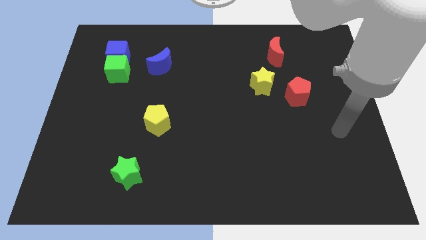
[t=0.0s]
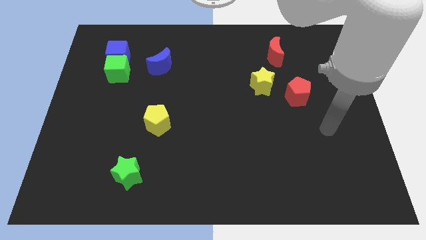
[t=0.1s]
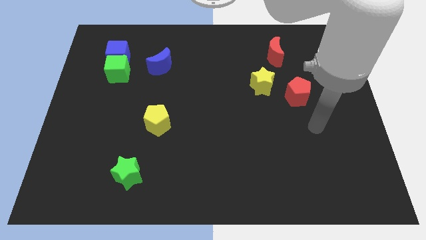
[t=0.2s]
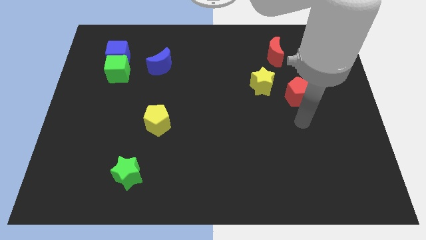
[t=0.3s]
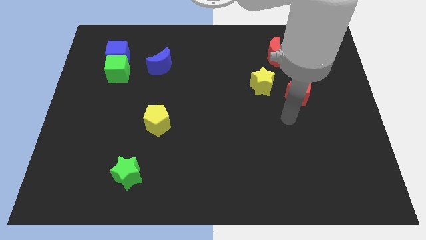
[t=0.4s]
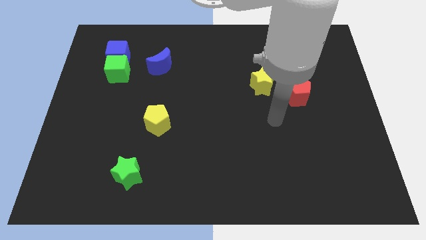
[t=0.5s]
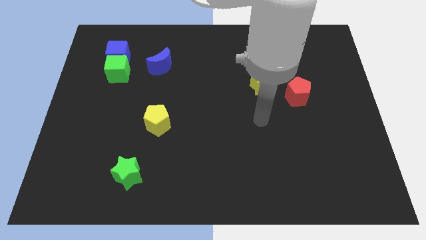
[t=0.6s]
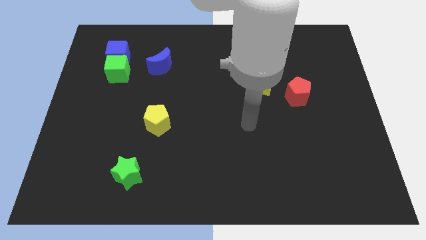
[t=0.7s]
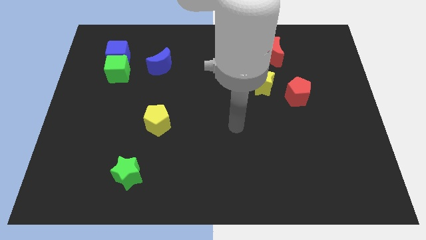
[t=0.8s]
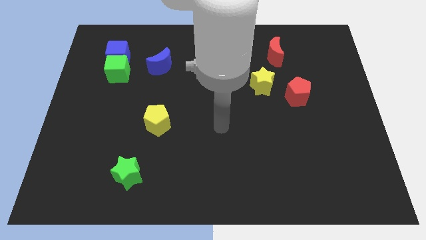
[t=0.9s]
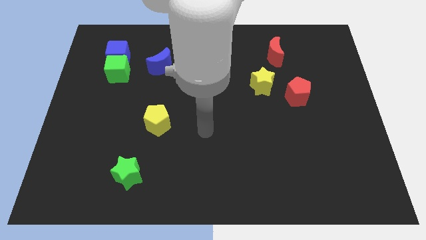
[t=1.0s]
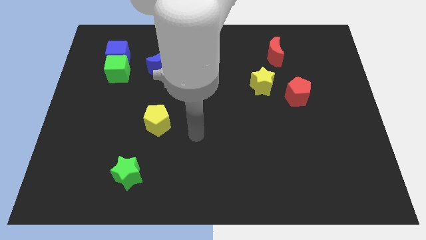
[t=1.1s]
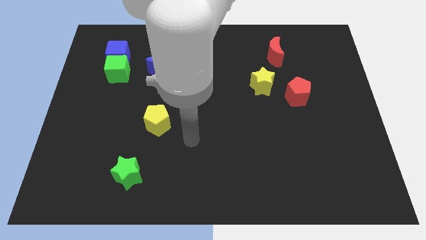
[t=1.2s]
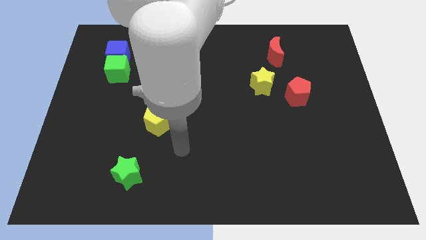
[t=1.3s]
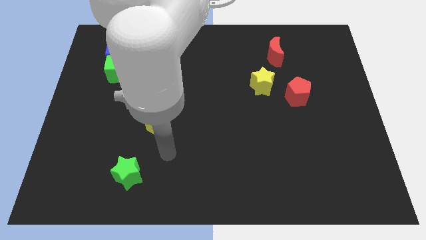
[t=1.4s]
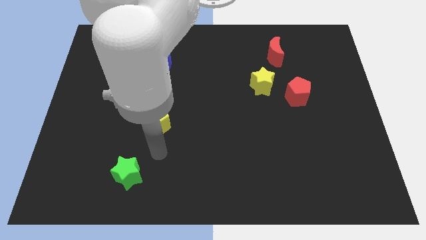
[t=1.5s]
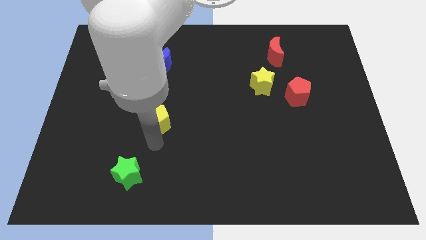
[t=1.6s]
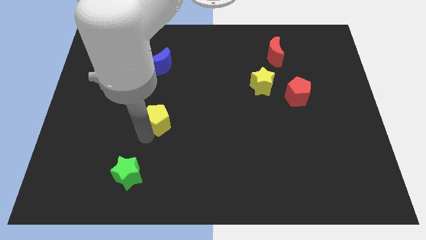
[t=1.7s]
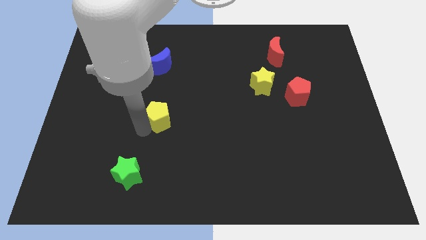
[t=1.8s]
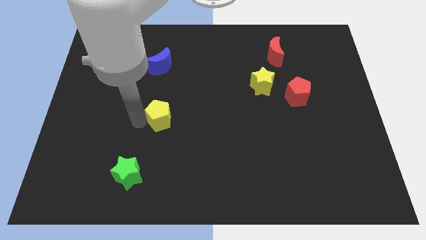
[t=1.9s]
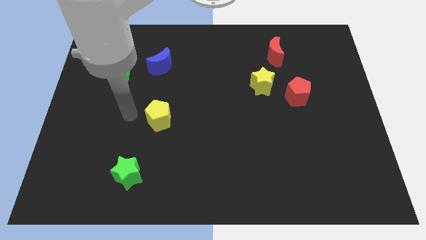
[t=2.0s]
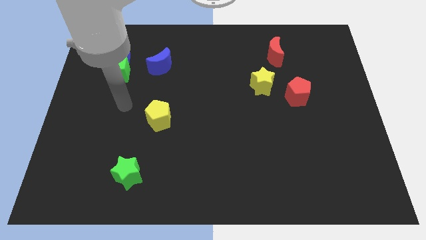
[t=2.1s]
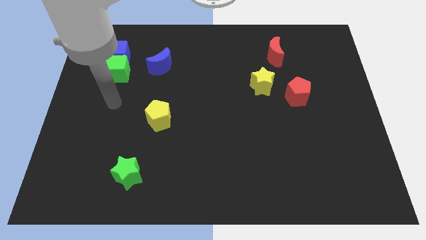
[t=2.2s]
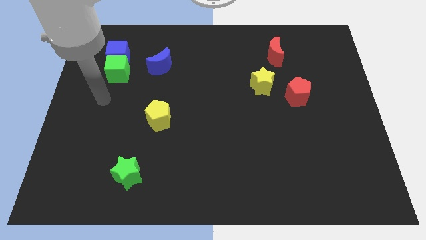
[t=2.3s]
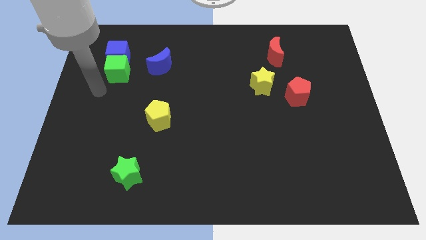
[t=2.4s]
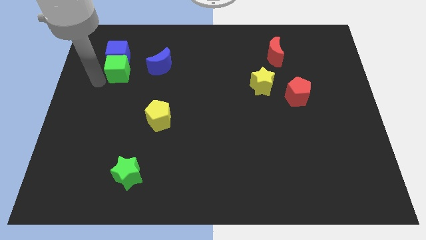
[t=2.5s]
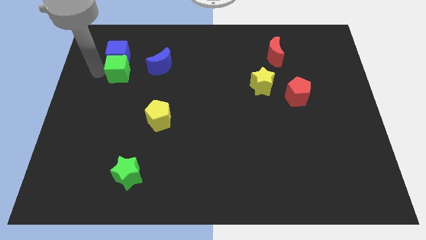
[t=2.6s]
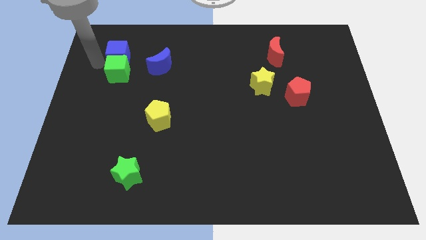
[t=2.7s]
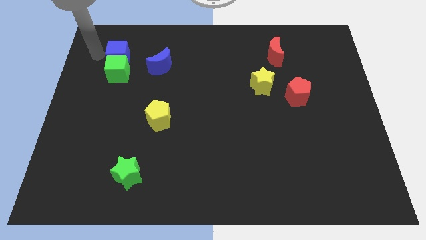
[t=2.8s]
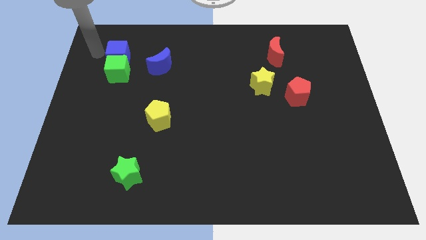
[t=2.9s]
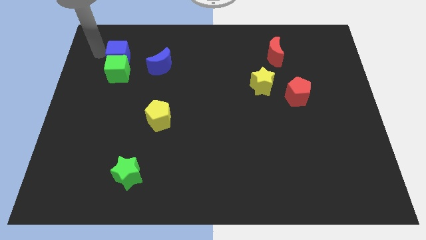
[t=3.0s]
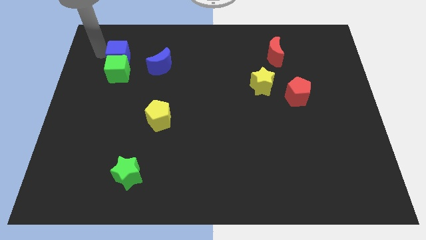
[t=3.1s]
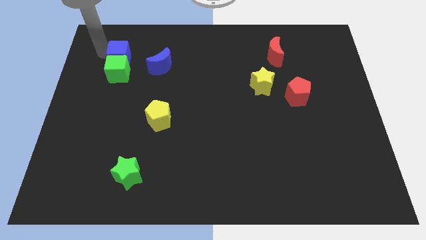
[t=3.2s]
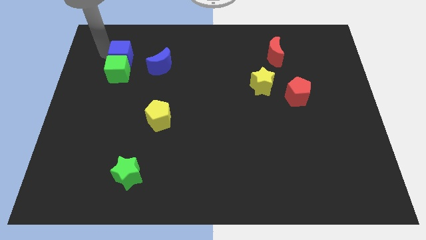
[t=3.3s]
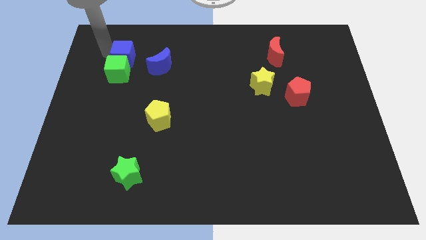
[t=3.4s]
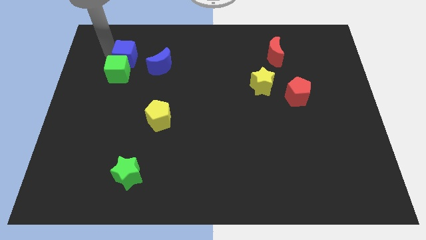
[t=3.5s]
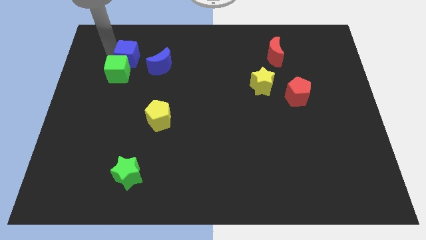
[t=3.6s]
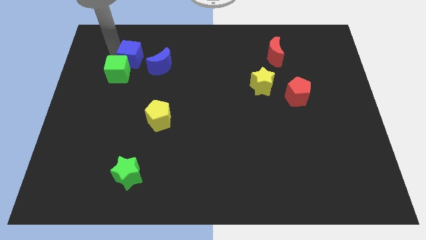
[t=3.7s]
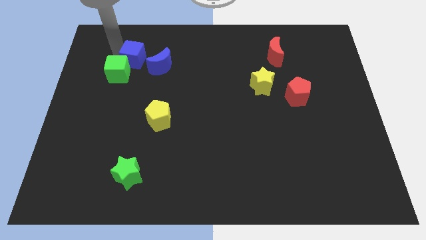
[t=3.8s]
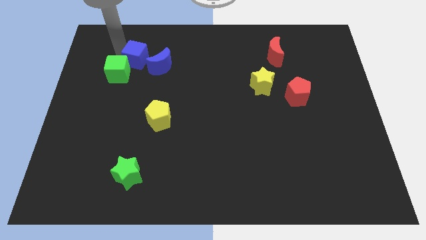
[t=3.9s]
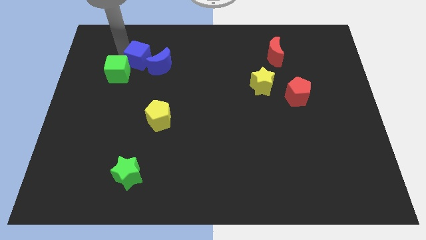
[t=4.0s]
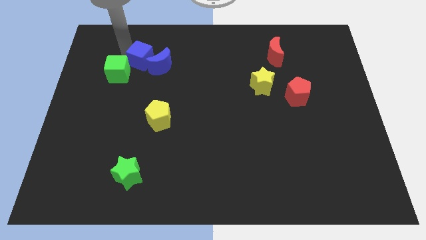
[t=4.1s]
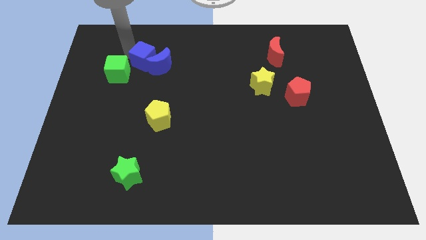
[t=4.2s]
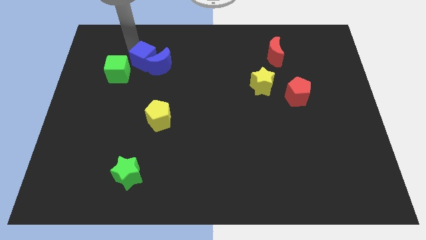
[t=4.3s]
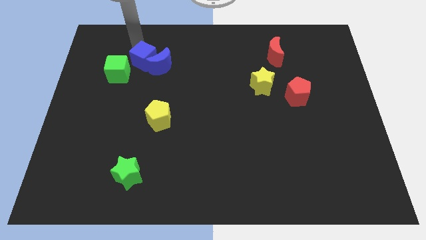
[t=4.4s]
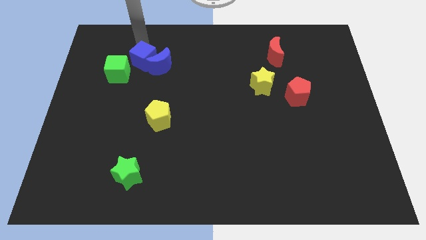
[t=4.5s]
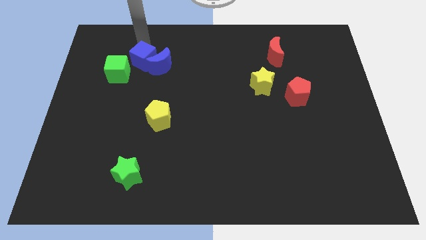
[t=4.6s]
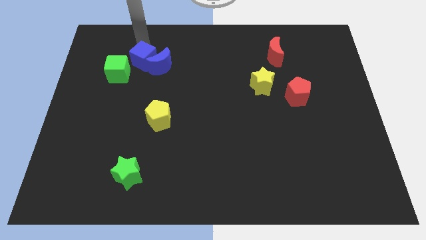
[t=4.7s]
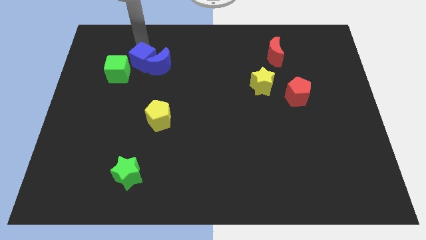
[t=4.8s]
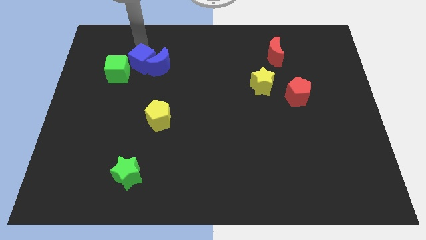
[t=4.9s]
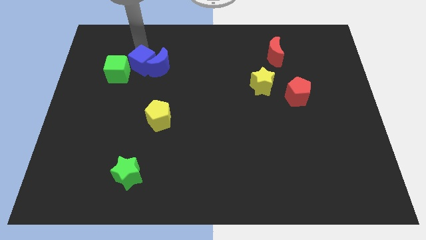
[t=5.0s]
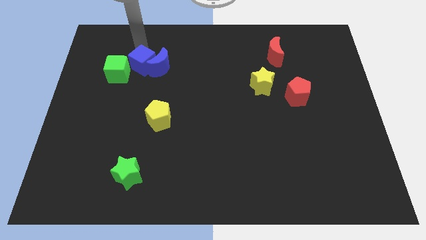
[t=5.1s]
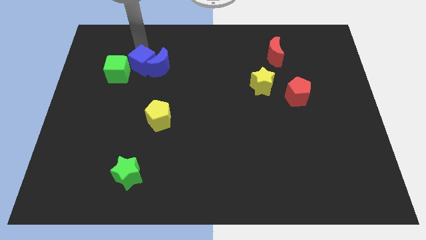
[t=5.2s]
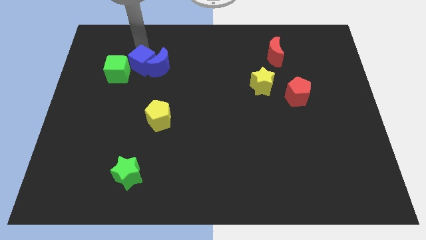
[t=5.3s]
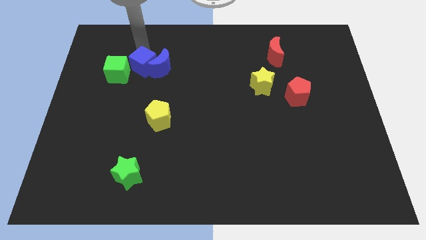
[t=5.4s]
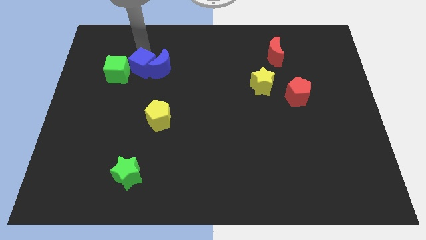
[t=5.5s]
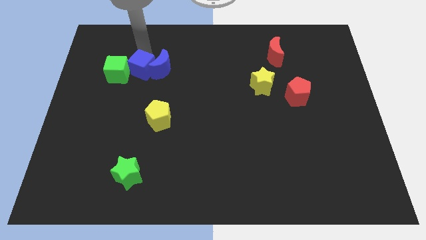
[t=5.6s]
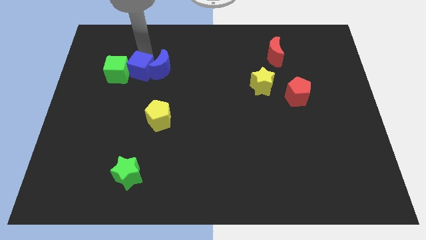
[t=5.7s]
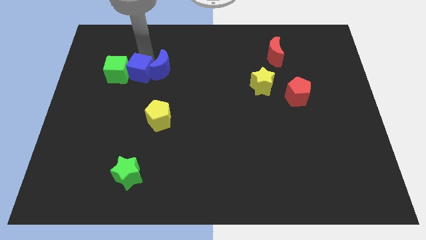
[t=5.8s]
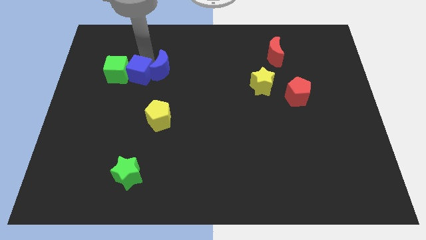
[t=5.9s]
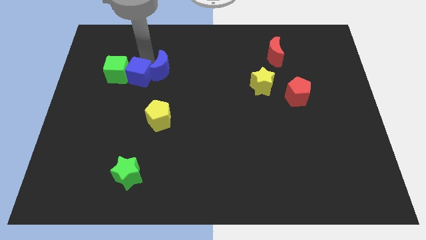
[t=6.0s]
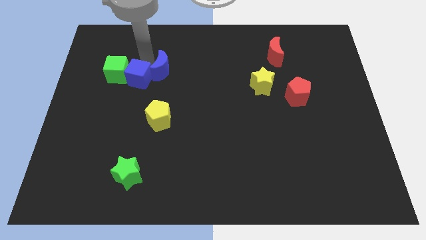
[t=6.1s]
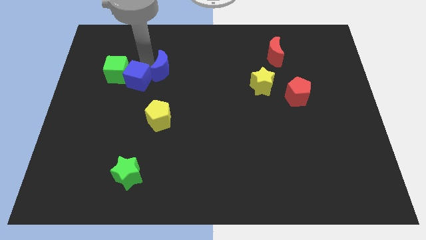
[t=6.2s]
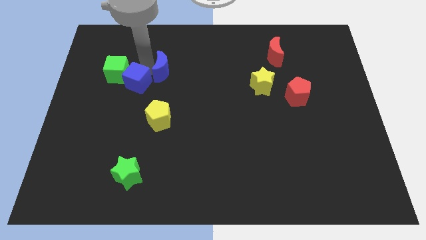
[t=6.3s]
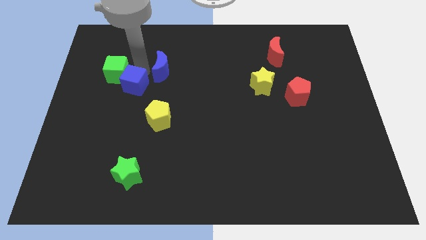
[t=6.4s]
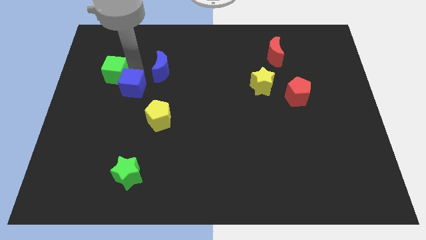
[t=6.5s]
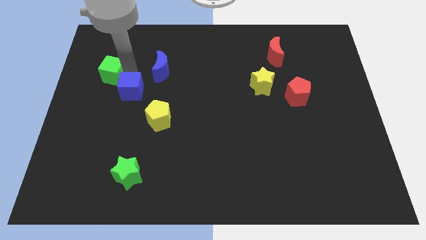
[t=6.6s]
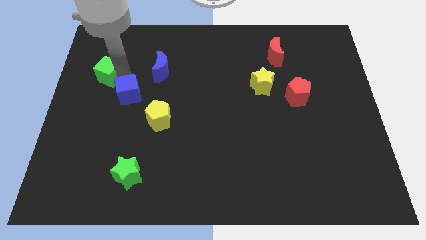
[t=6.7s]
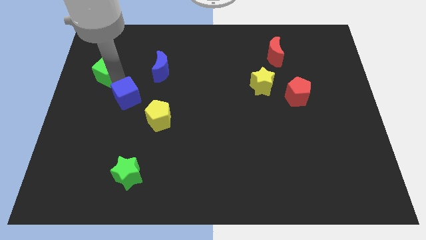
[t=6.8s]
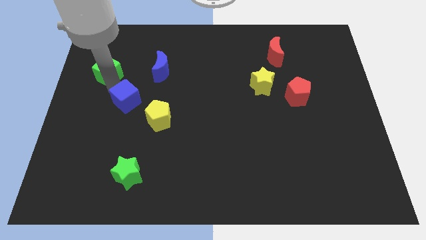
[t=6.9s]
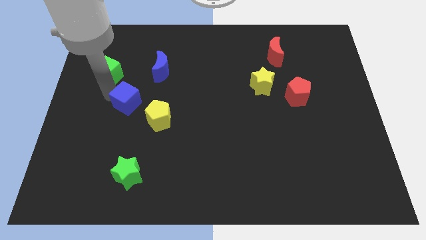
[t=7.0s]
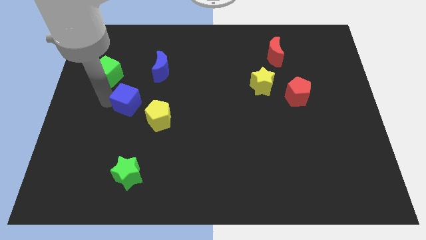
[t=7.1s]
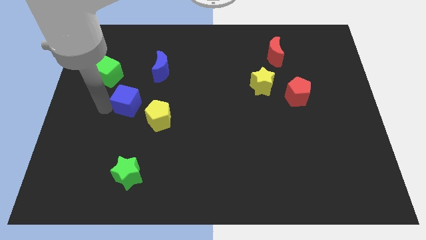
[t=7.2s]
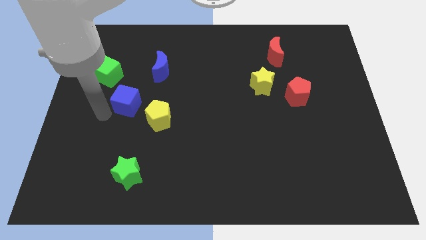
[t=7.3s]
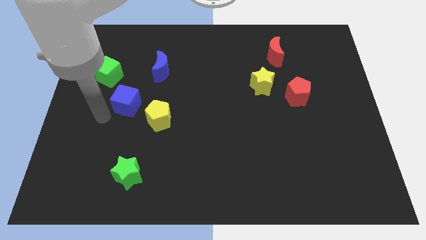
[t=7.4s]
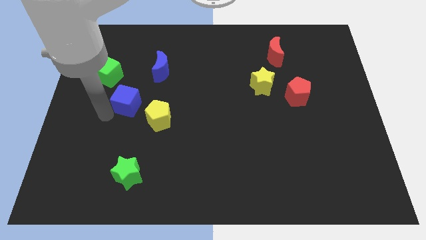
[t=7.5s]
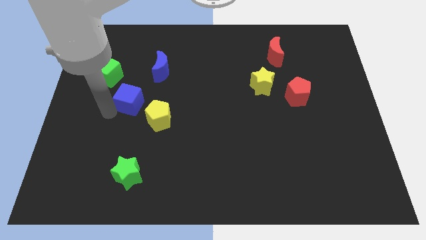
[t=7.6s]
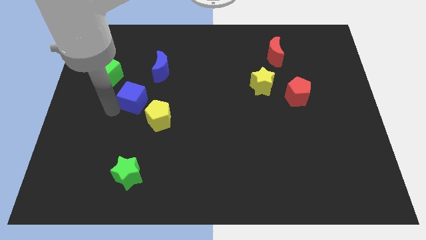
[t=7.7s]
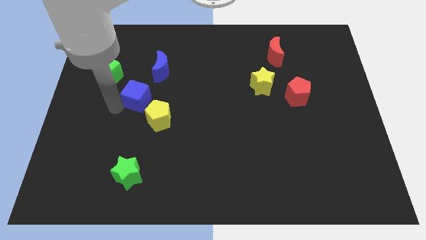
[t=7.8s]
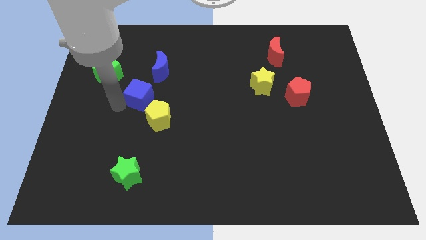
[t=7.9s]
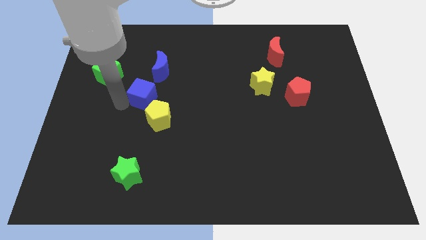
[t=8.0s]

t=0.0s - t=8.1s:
move the blue cube above the yellow pentagon
